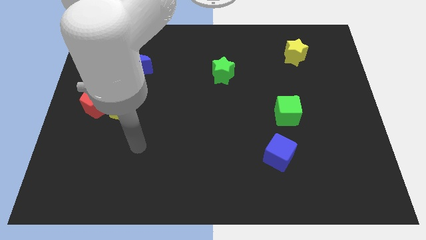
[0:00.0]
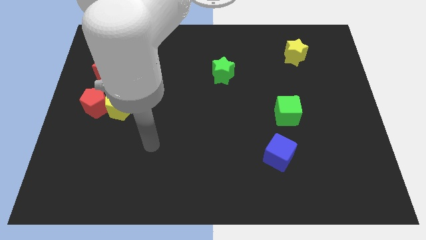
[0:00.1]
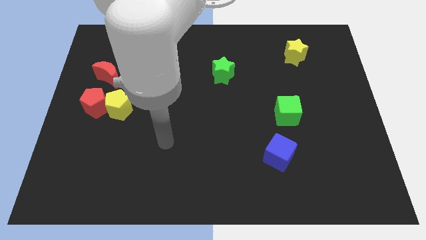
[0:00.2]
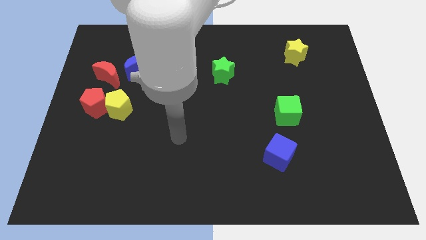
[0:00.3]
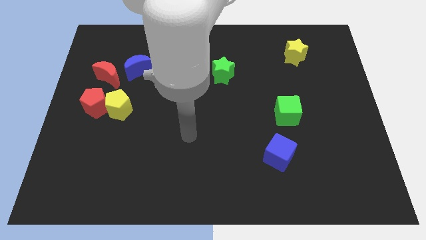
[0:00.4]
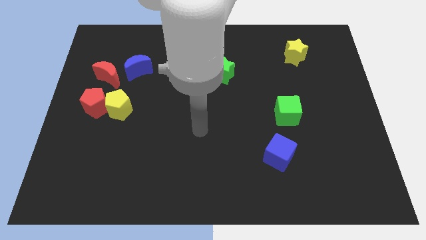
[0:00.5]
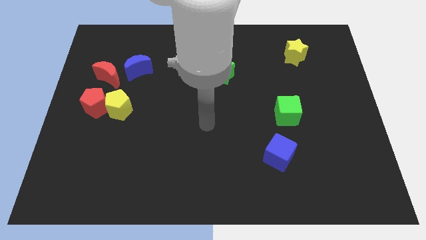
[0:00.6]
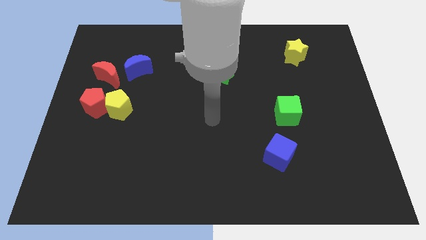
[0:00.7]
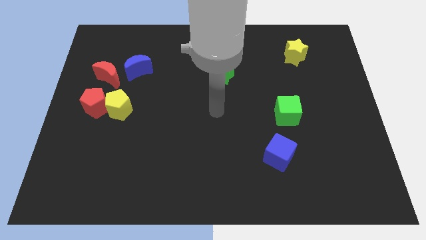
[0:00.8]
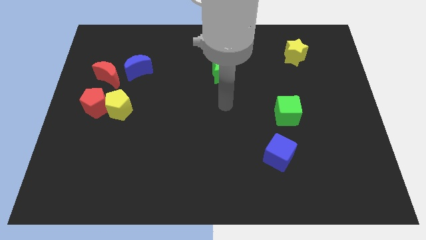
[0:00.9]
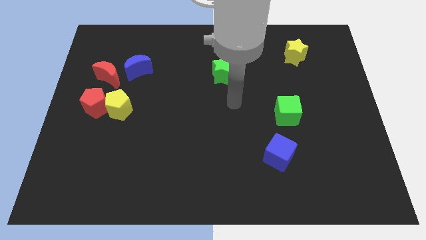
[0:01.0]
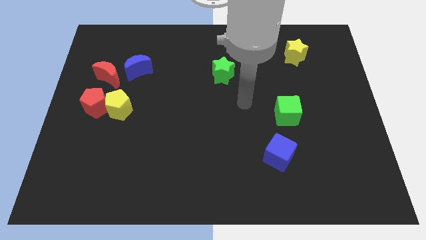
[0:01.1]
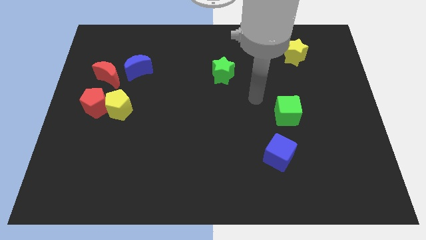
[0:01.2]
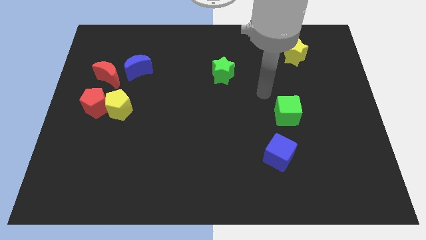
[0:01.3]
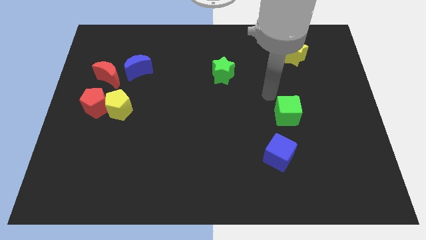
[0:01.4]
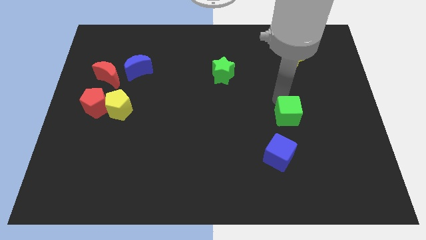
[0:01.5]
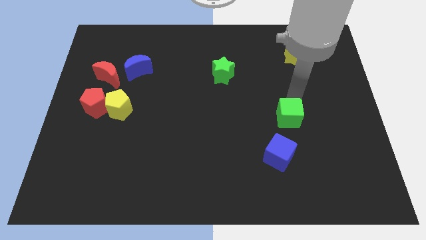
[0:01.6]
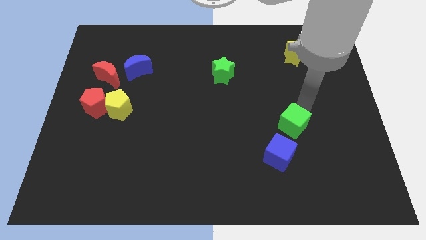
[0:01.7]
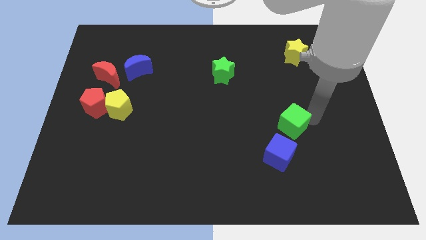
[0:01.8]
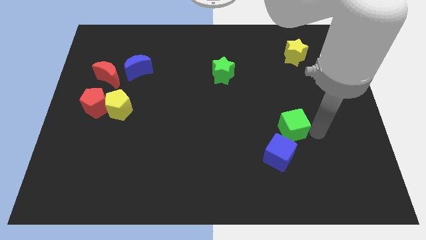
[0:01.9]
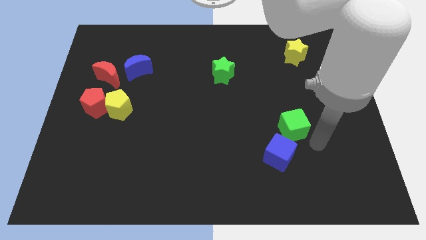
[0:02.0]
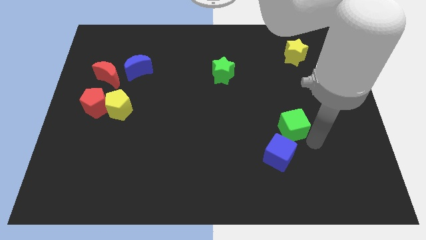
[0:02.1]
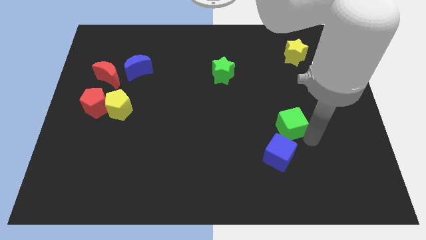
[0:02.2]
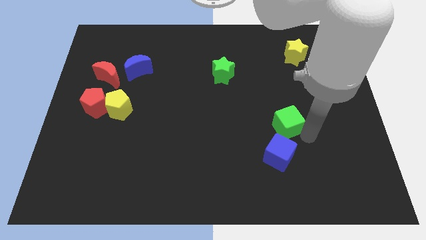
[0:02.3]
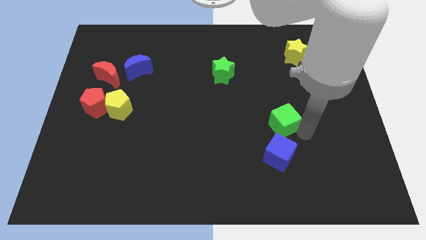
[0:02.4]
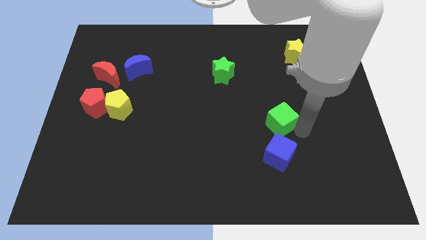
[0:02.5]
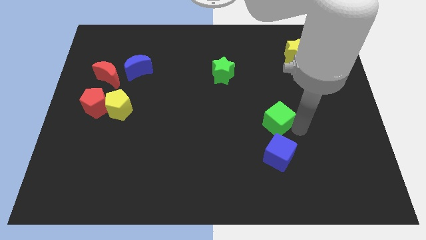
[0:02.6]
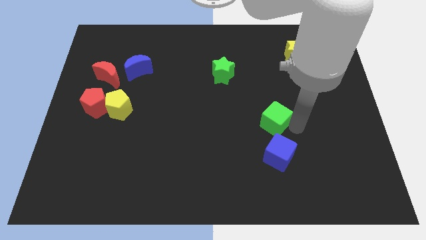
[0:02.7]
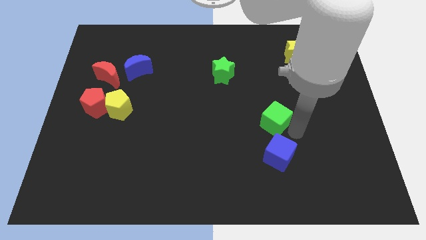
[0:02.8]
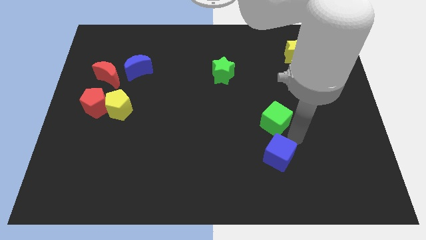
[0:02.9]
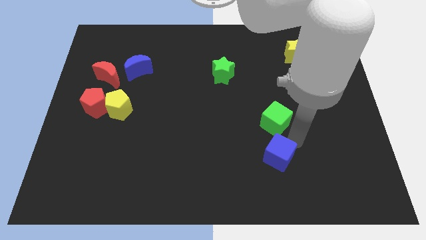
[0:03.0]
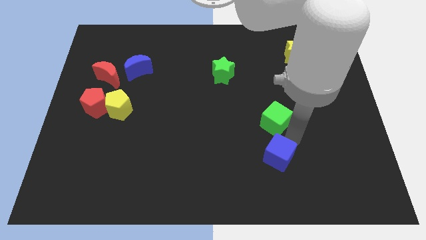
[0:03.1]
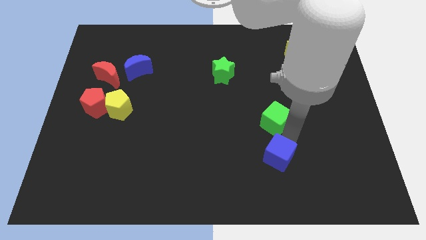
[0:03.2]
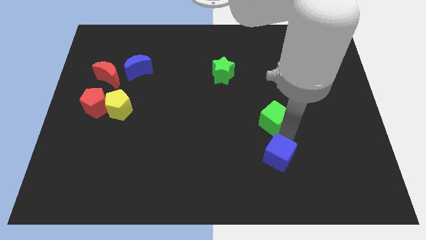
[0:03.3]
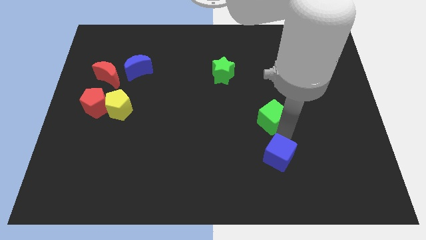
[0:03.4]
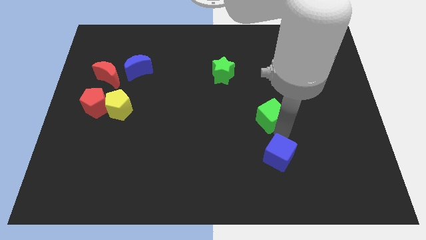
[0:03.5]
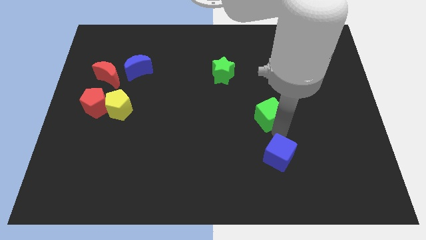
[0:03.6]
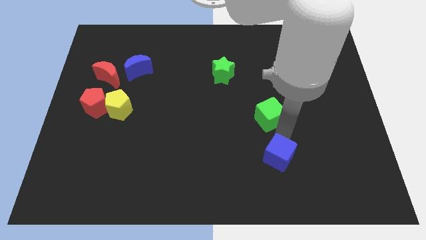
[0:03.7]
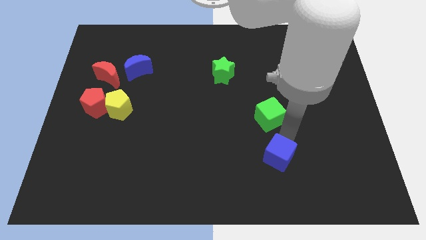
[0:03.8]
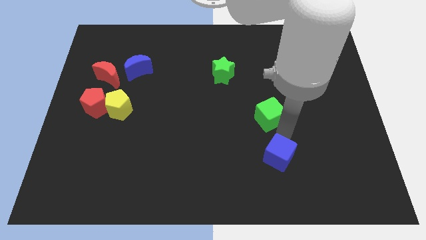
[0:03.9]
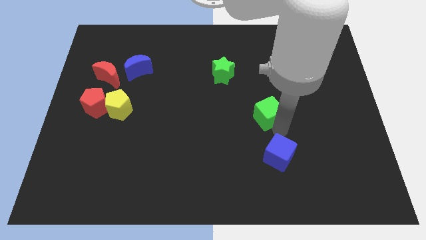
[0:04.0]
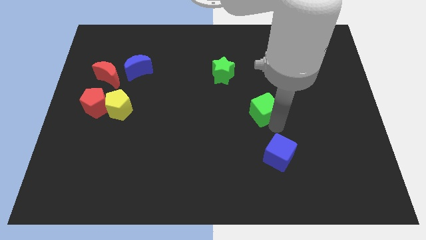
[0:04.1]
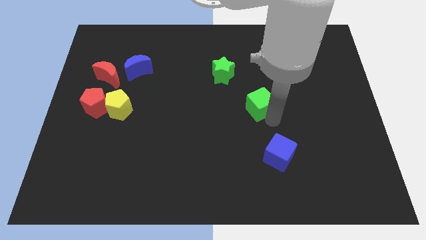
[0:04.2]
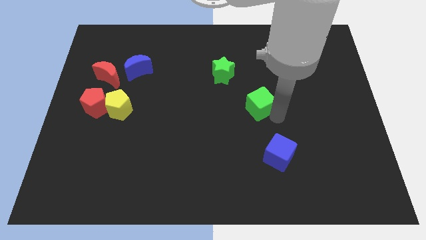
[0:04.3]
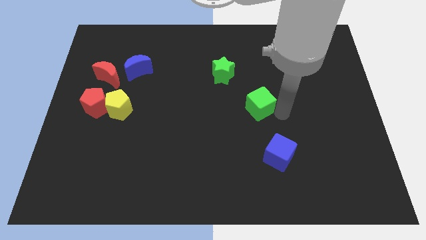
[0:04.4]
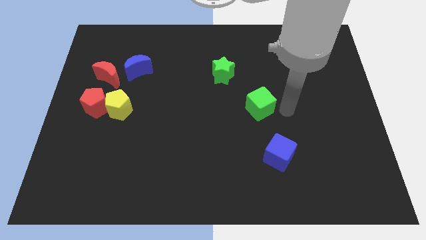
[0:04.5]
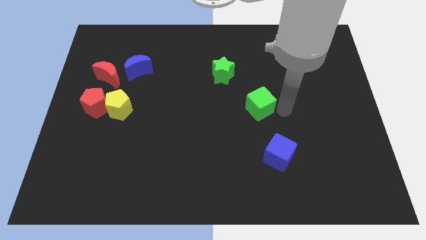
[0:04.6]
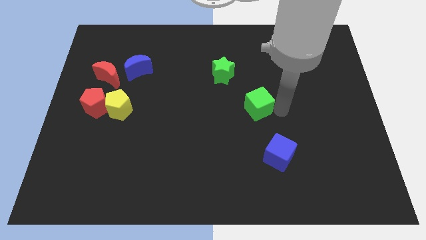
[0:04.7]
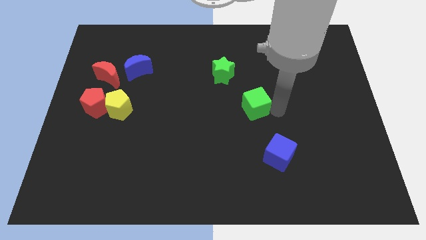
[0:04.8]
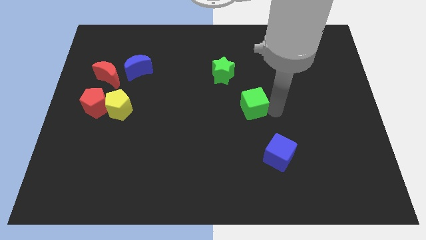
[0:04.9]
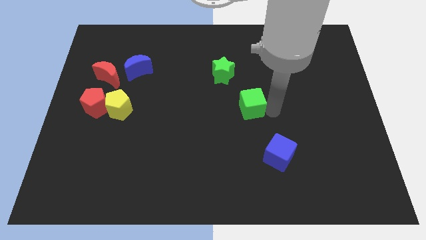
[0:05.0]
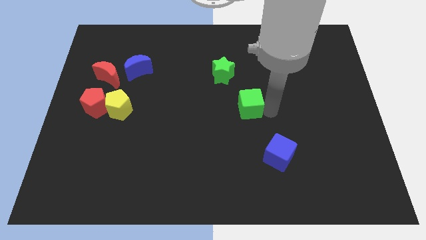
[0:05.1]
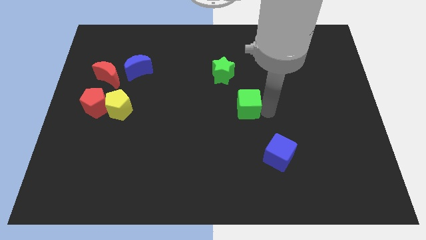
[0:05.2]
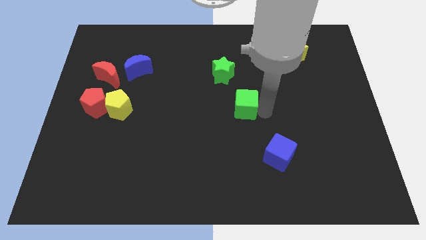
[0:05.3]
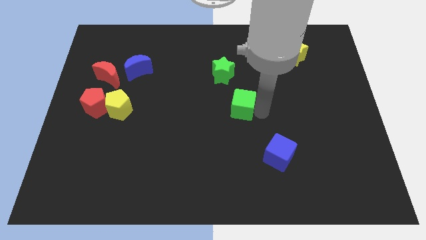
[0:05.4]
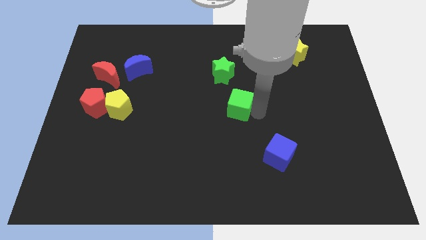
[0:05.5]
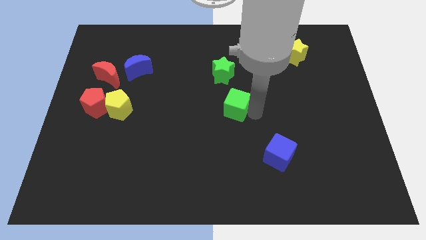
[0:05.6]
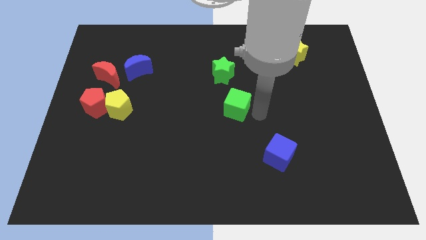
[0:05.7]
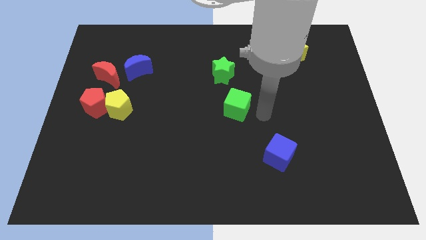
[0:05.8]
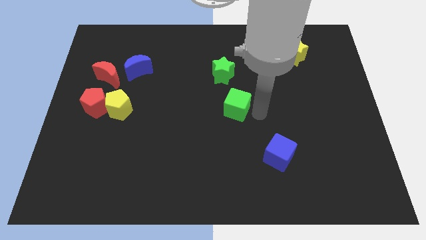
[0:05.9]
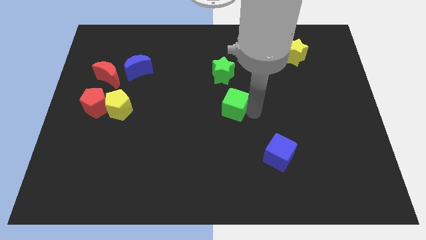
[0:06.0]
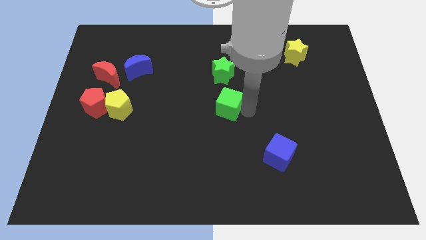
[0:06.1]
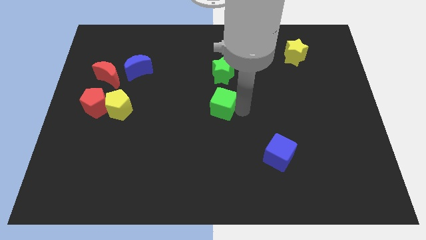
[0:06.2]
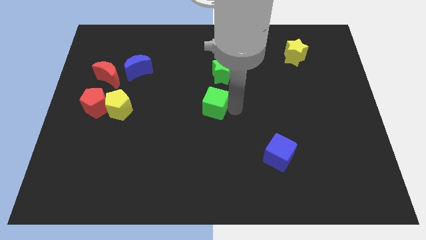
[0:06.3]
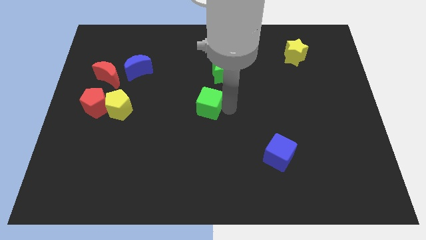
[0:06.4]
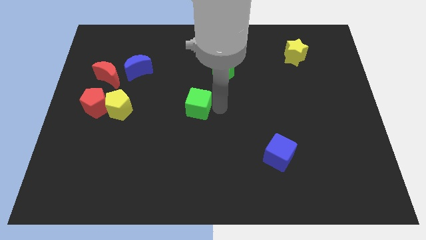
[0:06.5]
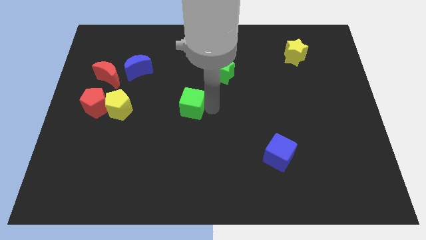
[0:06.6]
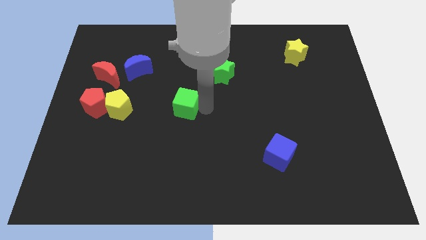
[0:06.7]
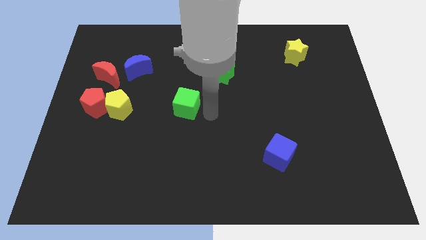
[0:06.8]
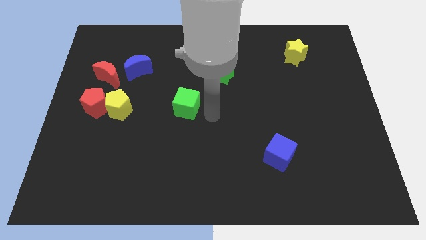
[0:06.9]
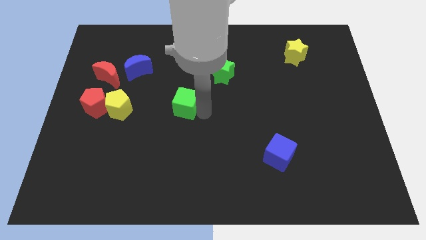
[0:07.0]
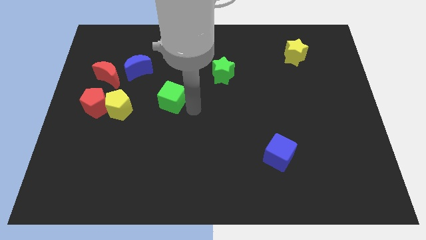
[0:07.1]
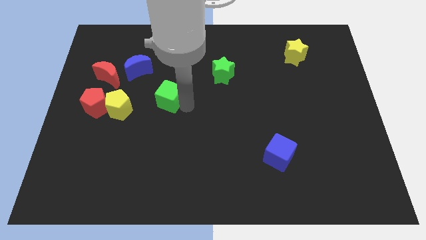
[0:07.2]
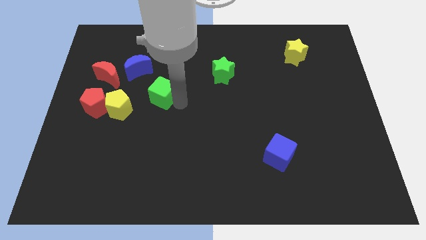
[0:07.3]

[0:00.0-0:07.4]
push the green cube to the top right side of the yellow pentagon
